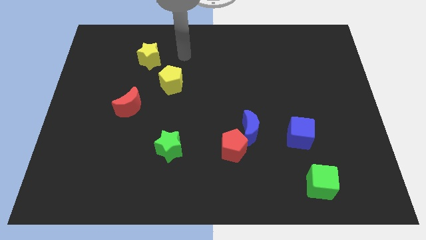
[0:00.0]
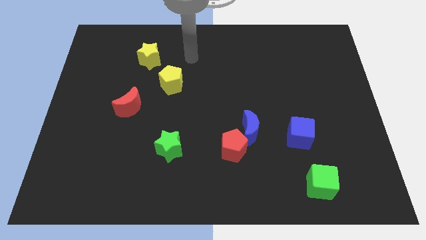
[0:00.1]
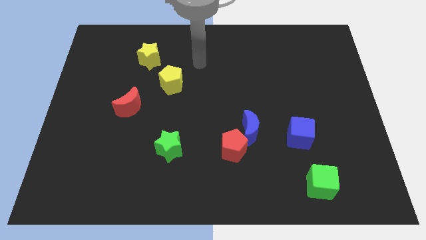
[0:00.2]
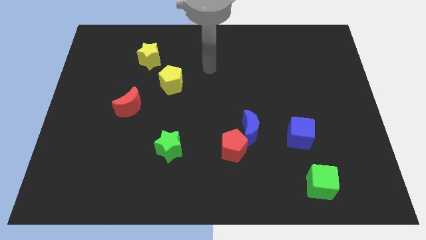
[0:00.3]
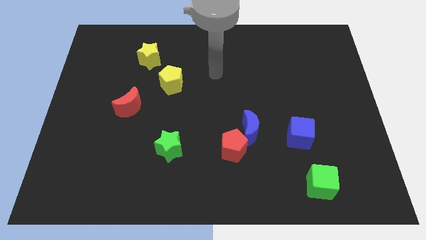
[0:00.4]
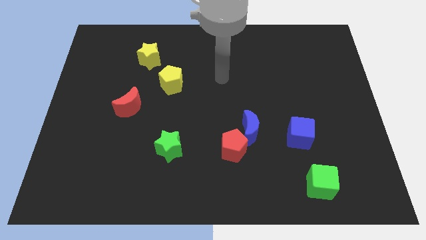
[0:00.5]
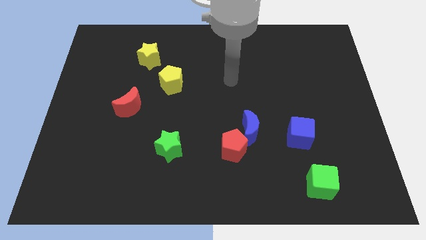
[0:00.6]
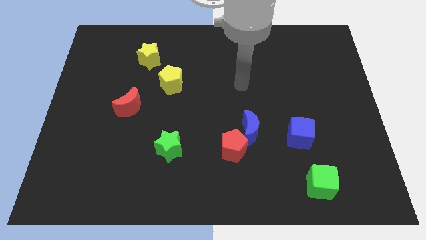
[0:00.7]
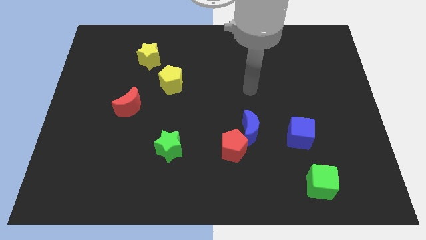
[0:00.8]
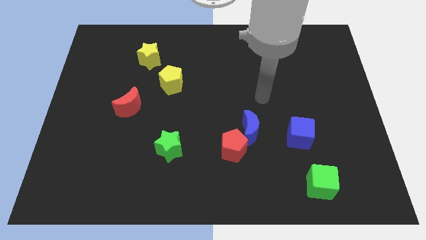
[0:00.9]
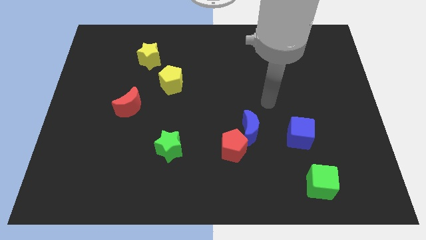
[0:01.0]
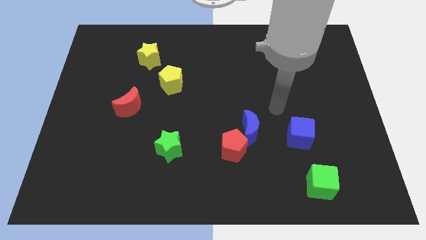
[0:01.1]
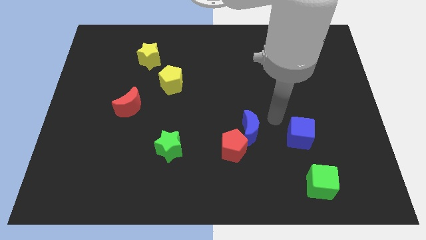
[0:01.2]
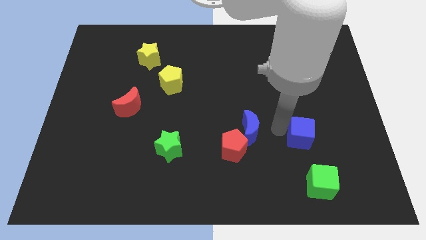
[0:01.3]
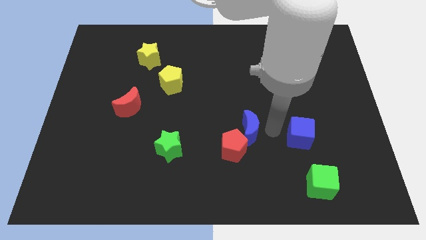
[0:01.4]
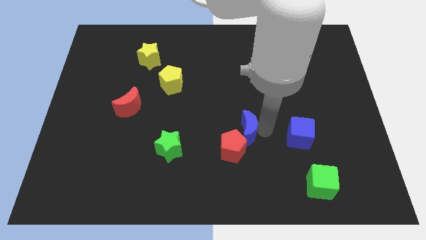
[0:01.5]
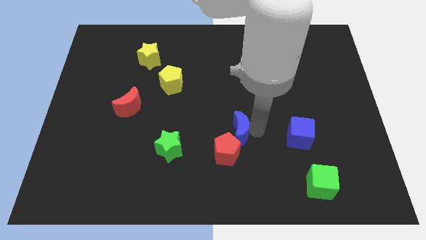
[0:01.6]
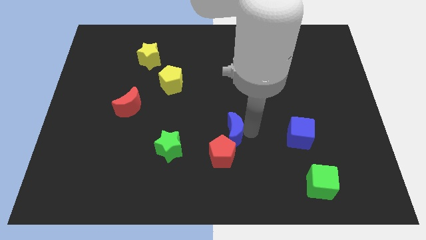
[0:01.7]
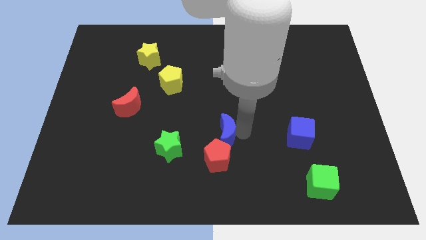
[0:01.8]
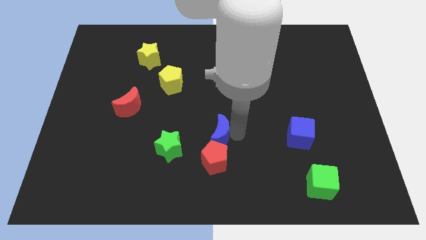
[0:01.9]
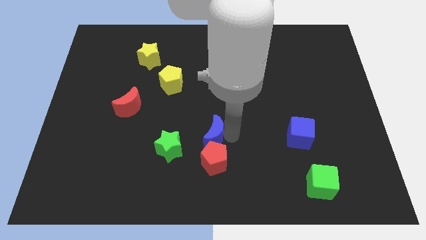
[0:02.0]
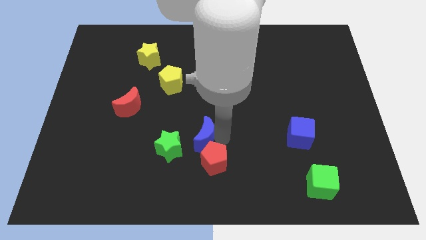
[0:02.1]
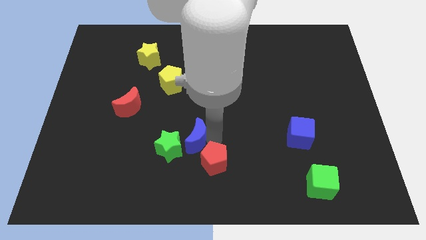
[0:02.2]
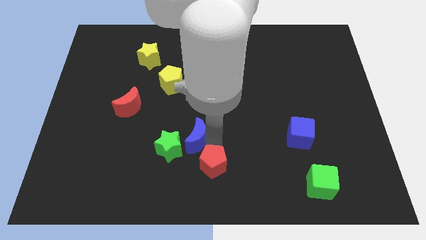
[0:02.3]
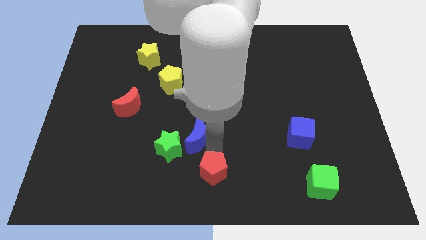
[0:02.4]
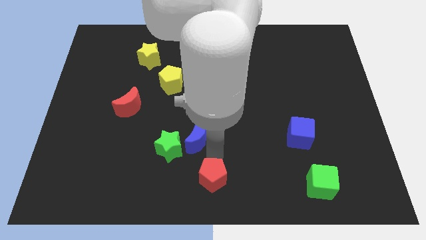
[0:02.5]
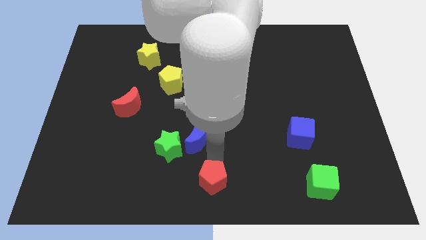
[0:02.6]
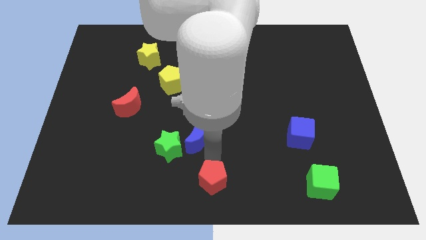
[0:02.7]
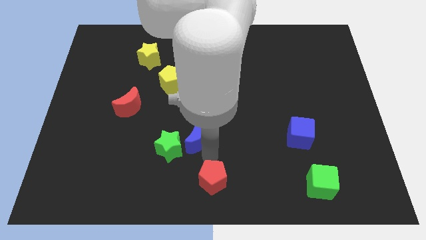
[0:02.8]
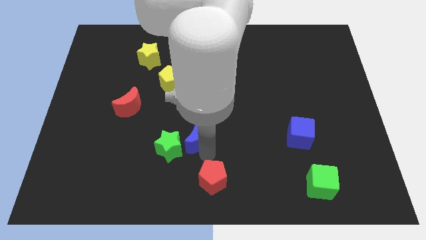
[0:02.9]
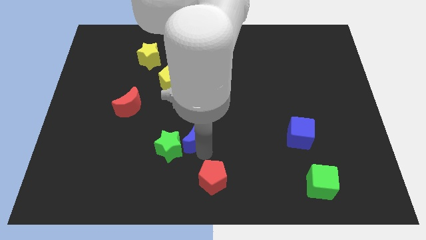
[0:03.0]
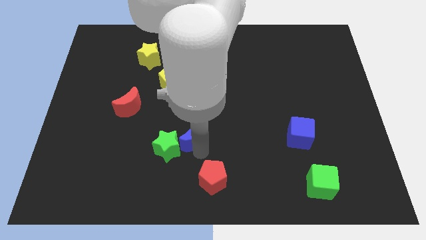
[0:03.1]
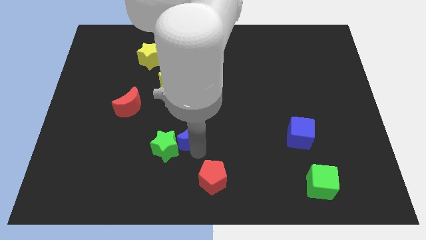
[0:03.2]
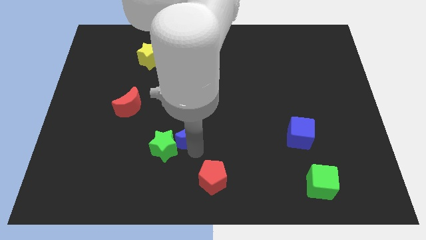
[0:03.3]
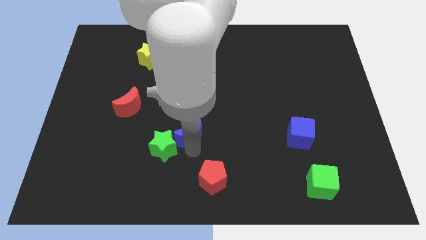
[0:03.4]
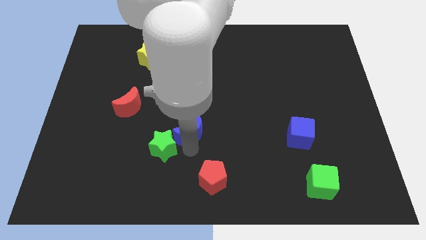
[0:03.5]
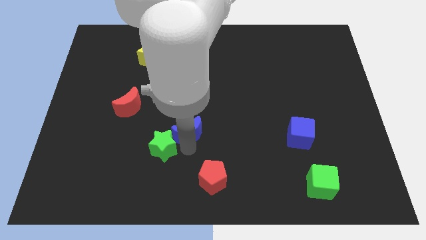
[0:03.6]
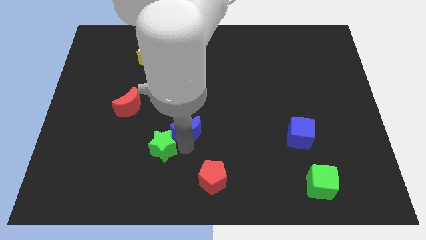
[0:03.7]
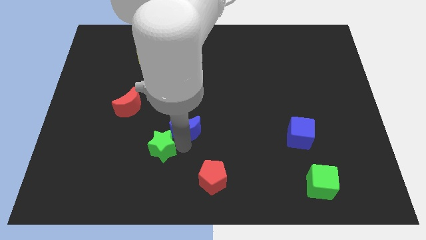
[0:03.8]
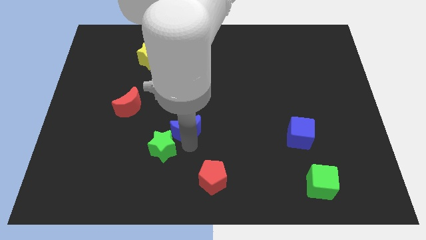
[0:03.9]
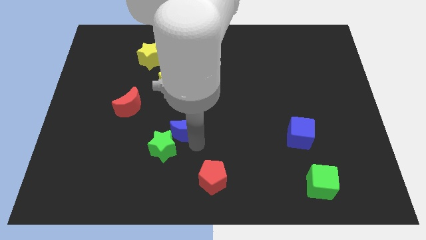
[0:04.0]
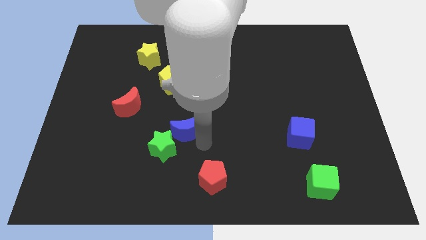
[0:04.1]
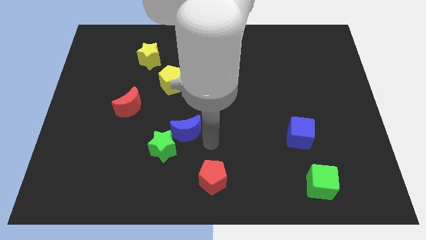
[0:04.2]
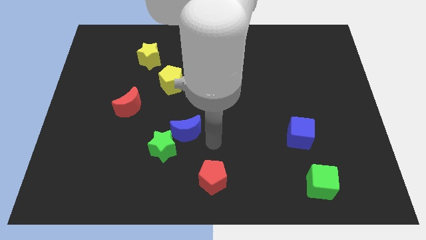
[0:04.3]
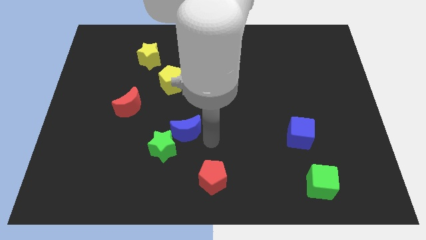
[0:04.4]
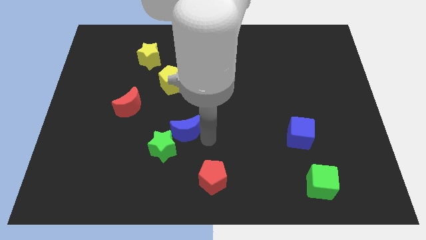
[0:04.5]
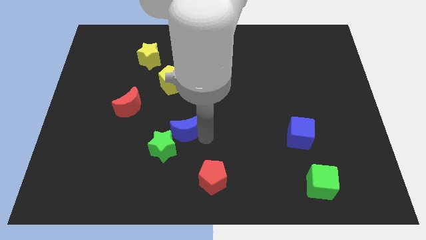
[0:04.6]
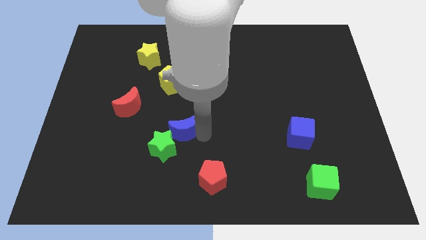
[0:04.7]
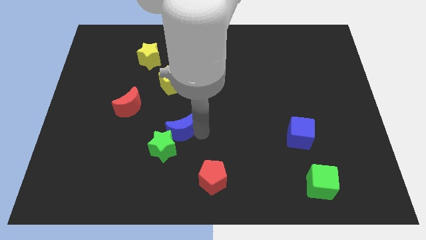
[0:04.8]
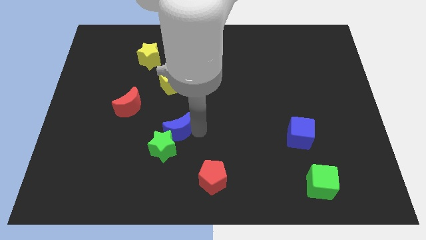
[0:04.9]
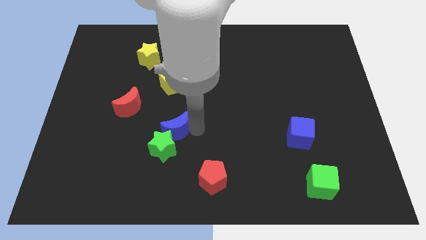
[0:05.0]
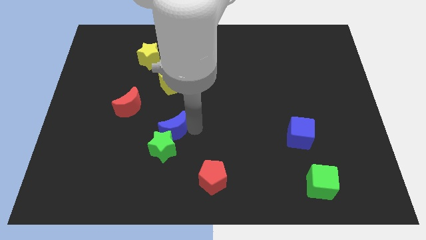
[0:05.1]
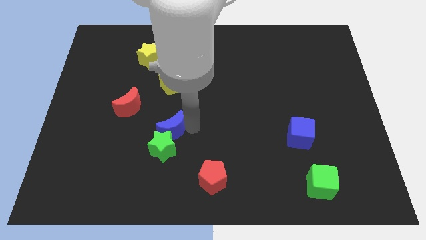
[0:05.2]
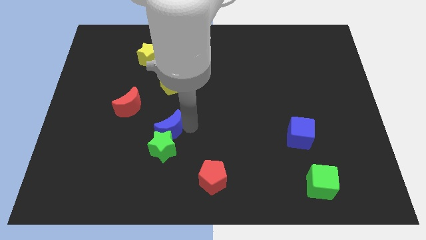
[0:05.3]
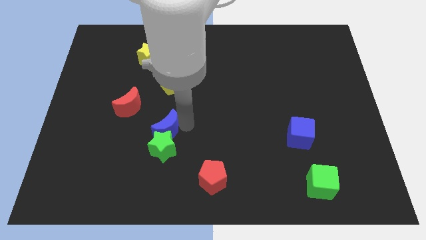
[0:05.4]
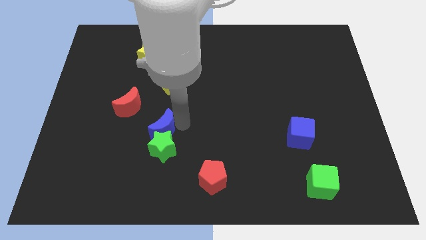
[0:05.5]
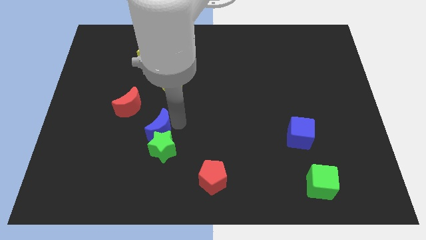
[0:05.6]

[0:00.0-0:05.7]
slide the blue moon left

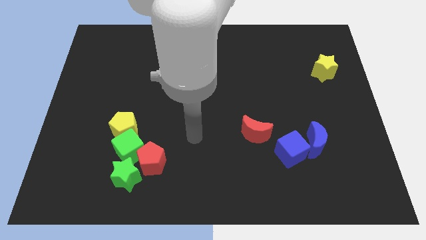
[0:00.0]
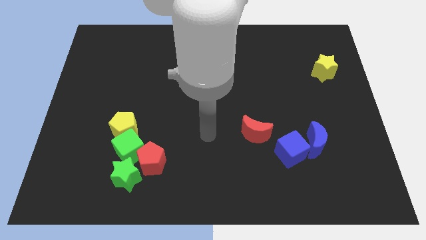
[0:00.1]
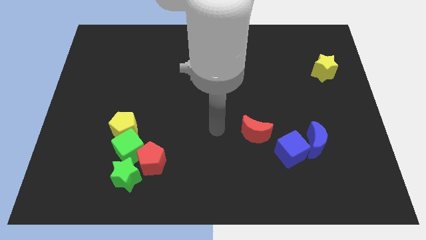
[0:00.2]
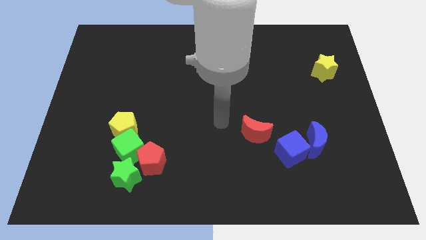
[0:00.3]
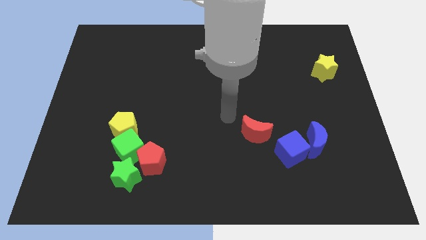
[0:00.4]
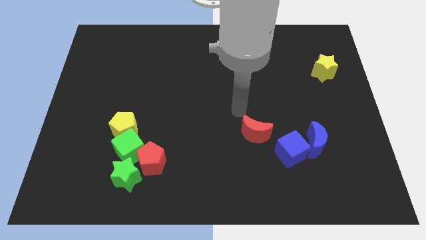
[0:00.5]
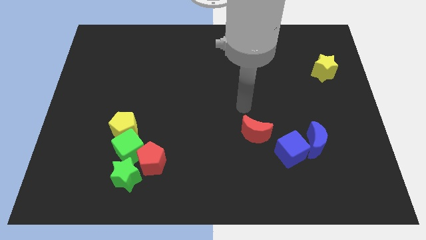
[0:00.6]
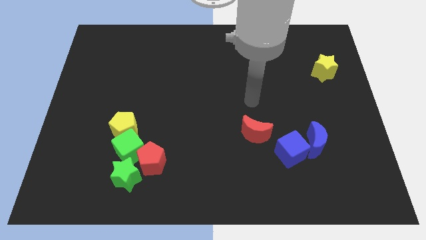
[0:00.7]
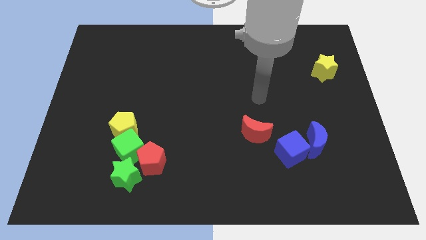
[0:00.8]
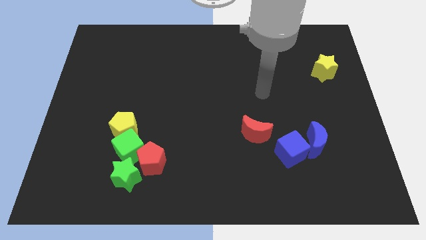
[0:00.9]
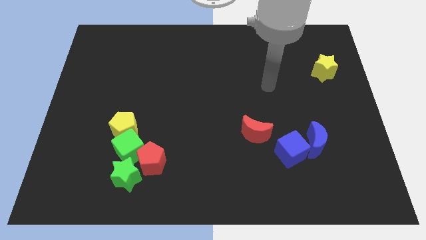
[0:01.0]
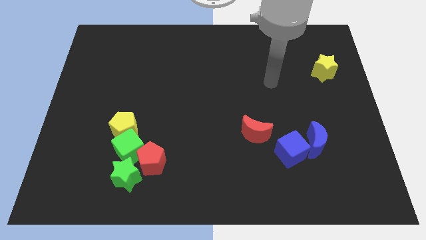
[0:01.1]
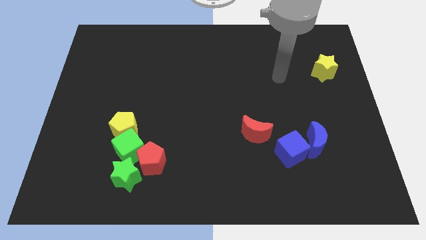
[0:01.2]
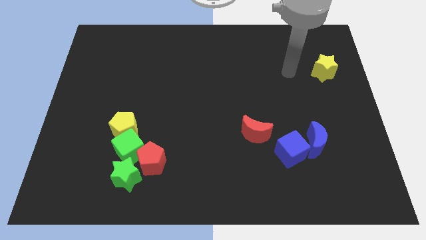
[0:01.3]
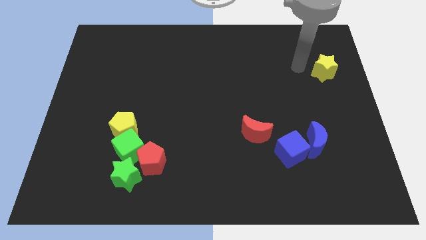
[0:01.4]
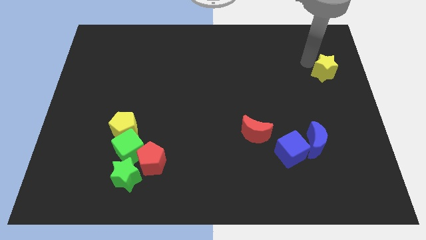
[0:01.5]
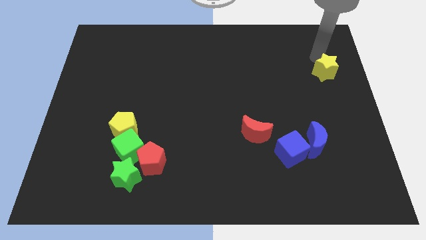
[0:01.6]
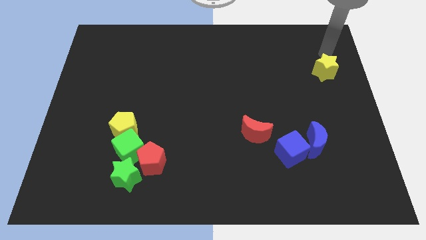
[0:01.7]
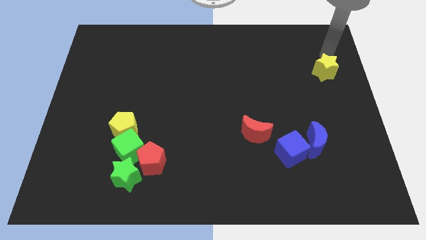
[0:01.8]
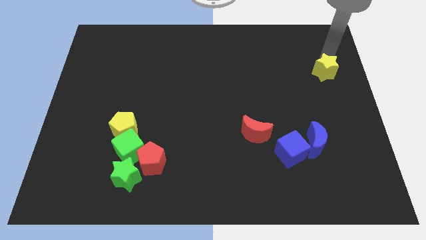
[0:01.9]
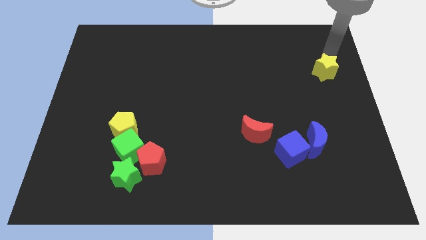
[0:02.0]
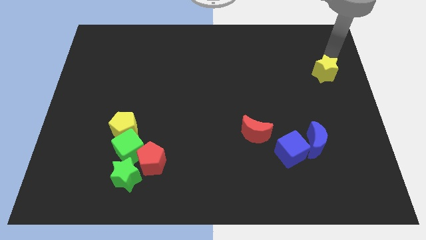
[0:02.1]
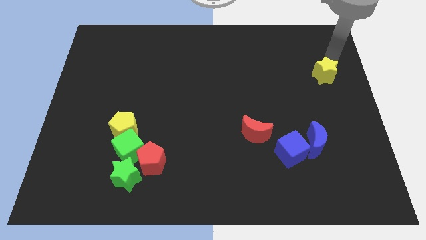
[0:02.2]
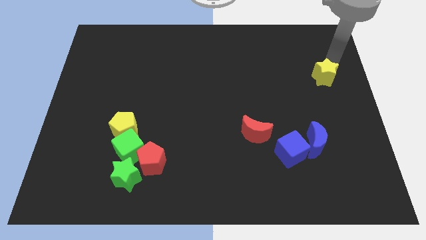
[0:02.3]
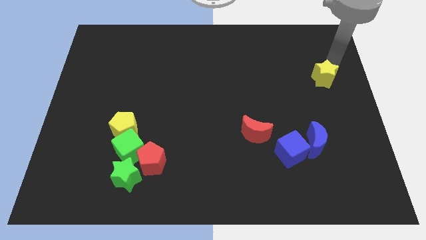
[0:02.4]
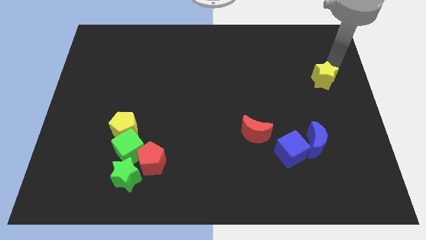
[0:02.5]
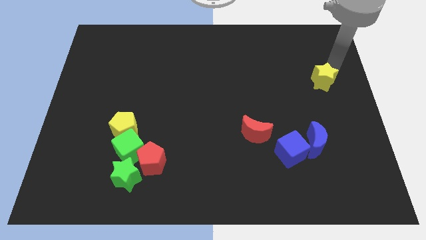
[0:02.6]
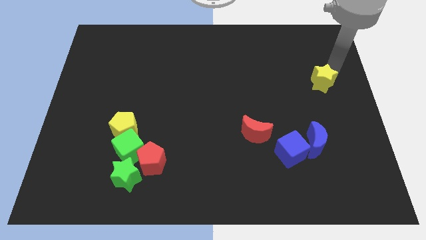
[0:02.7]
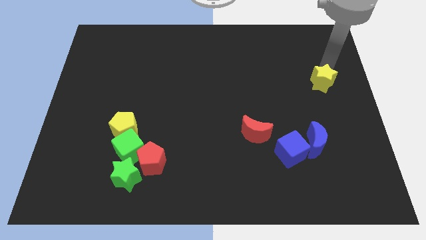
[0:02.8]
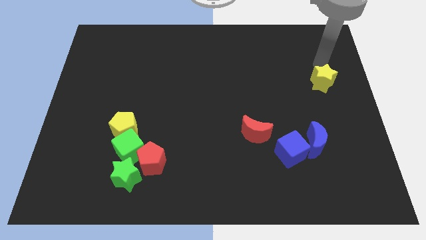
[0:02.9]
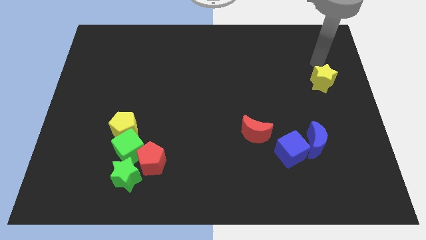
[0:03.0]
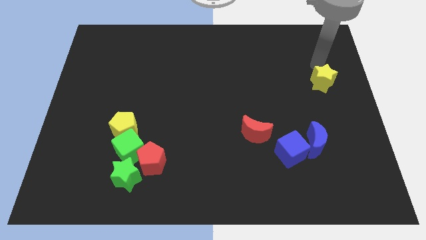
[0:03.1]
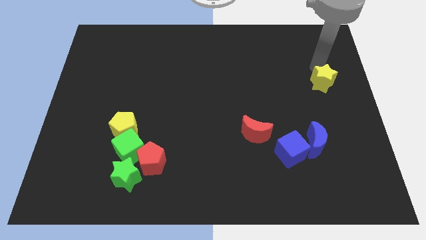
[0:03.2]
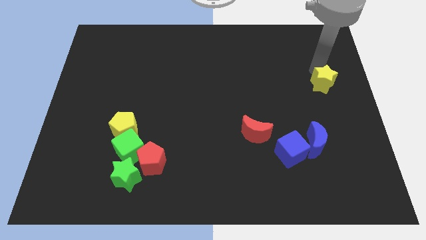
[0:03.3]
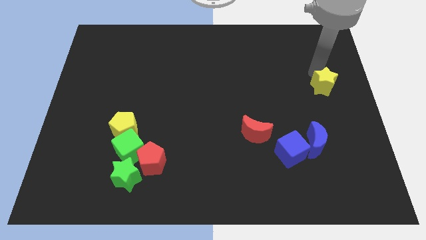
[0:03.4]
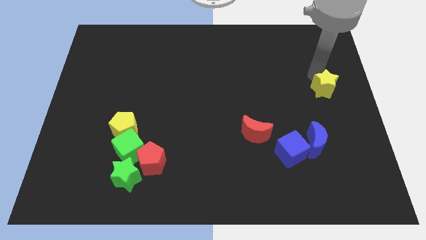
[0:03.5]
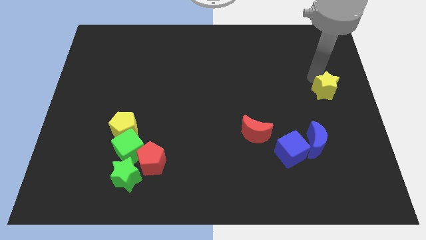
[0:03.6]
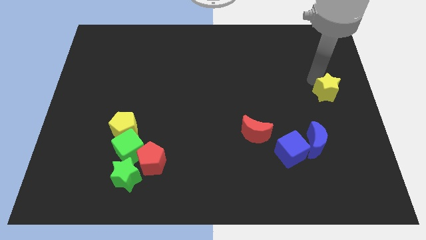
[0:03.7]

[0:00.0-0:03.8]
move the yellow star a little bit downwards
